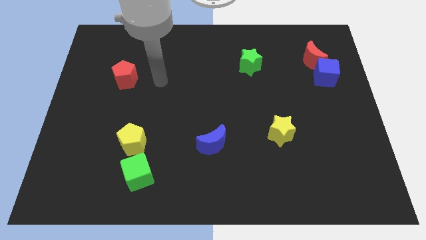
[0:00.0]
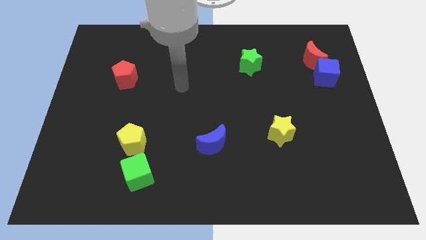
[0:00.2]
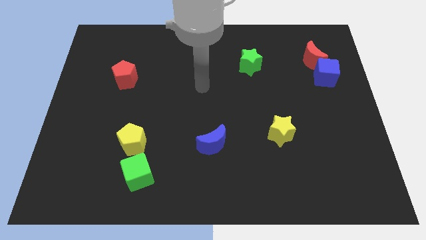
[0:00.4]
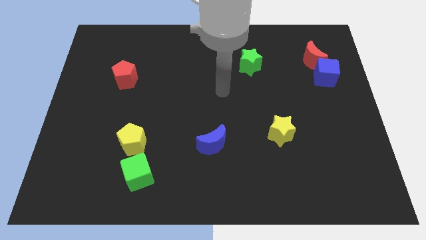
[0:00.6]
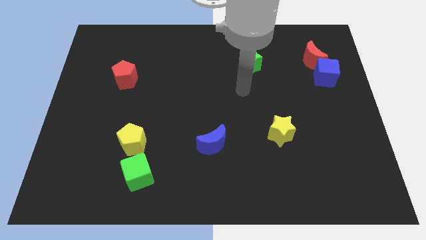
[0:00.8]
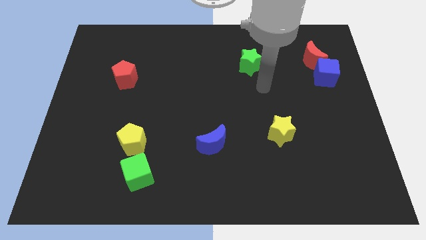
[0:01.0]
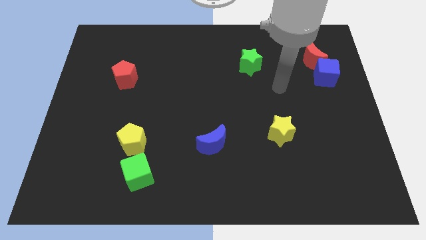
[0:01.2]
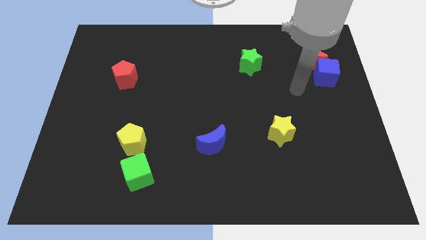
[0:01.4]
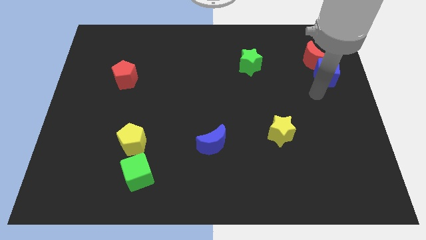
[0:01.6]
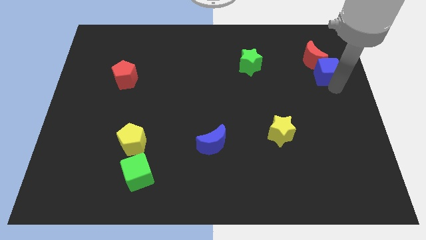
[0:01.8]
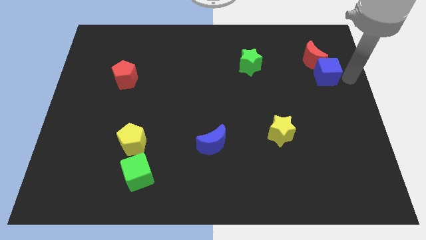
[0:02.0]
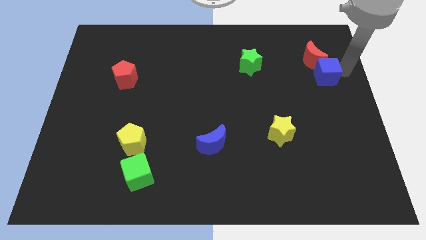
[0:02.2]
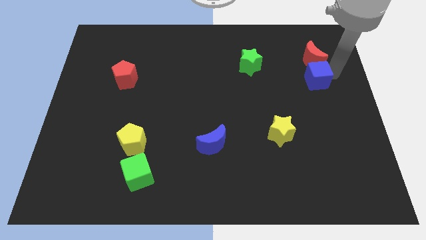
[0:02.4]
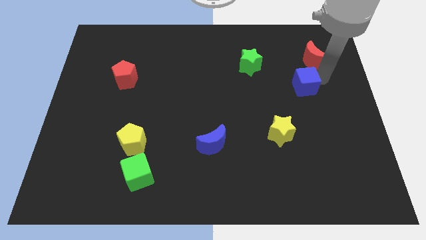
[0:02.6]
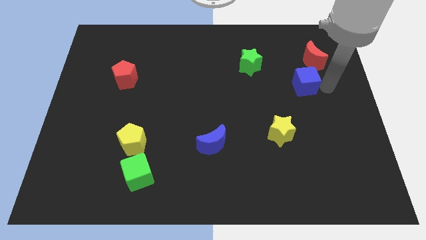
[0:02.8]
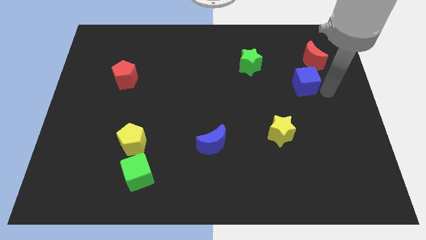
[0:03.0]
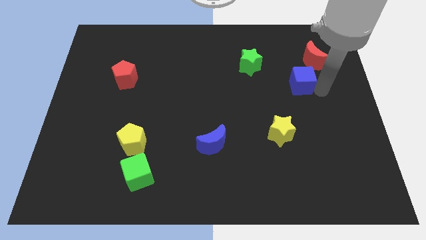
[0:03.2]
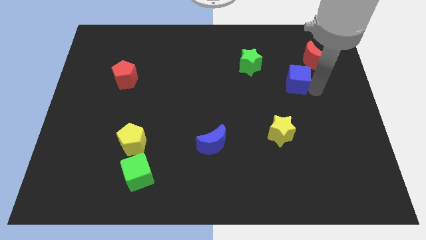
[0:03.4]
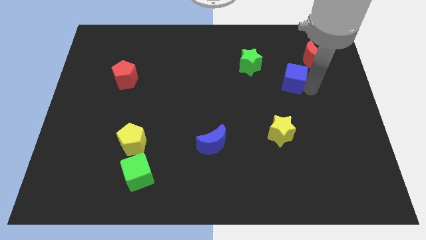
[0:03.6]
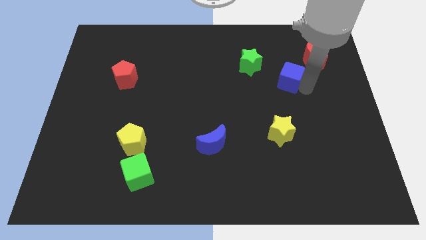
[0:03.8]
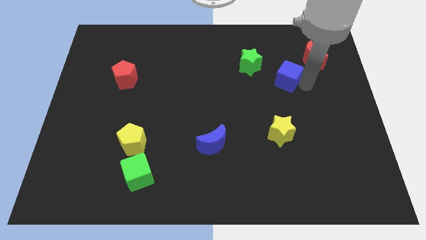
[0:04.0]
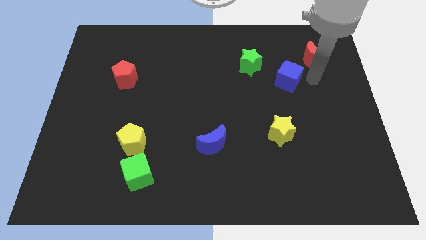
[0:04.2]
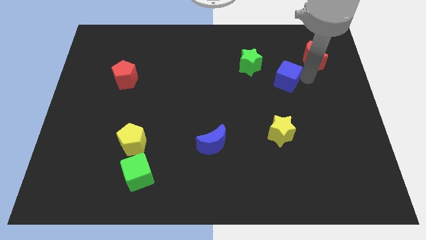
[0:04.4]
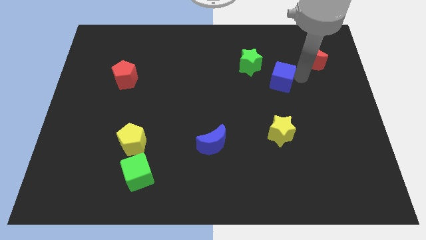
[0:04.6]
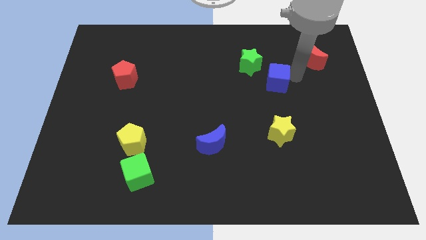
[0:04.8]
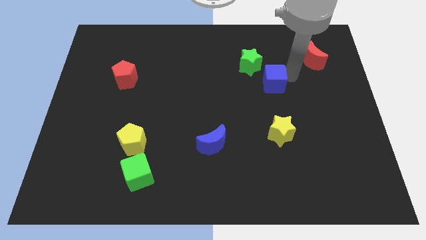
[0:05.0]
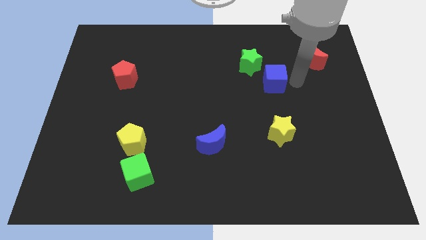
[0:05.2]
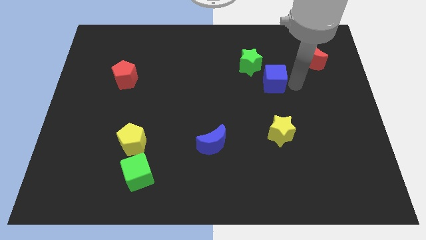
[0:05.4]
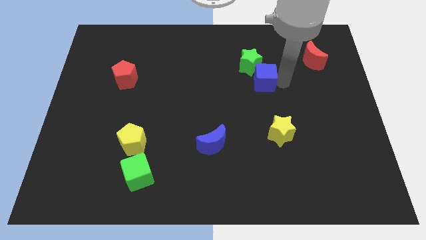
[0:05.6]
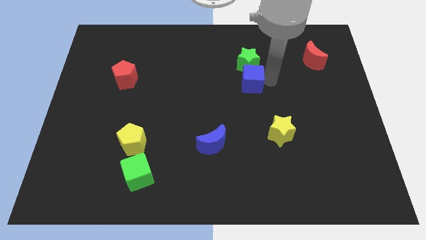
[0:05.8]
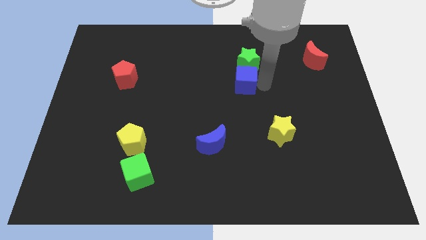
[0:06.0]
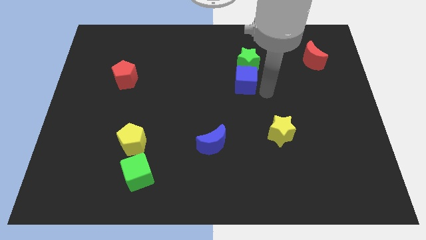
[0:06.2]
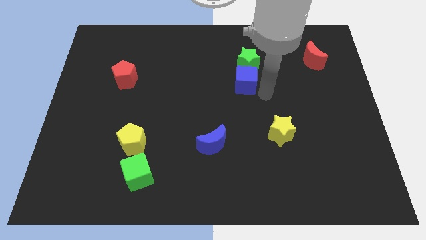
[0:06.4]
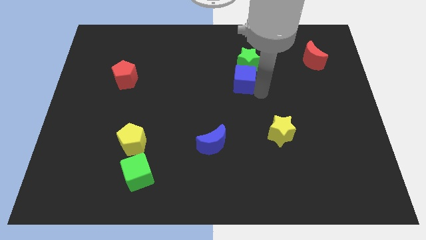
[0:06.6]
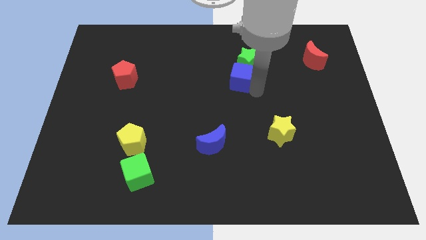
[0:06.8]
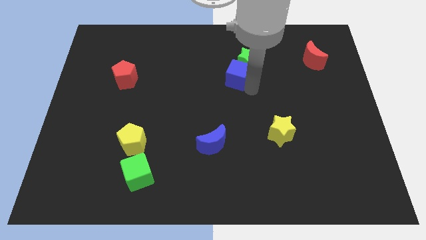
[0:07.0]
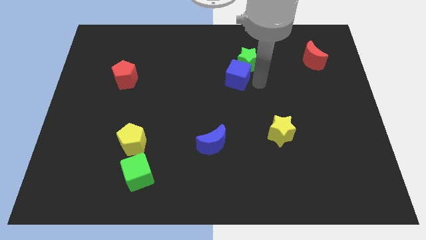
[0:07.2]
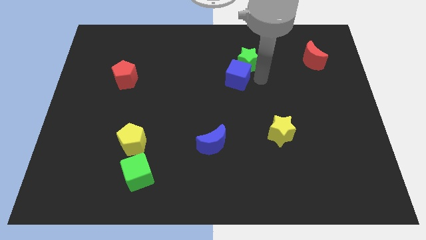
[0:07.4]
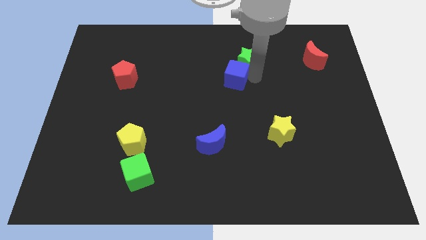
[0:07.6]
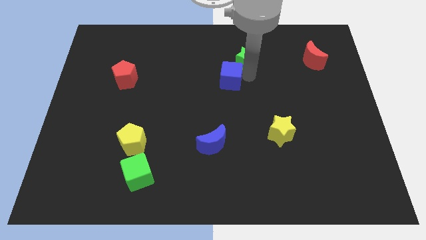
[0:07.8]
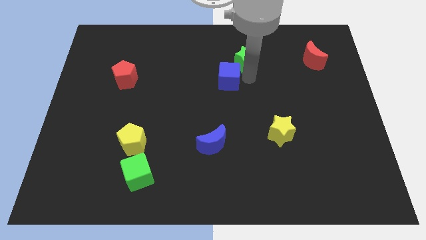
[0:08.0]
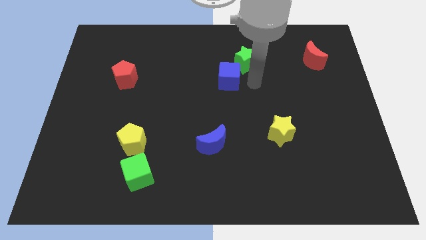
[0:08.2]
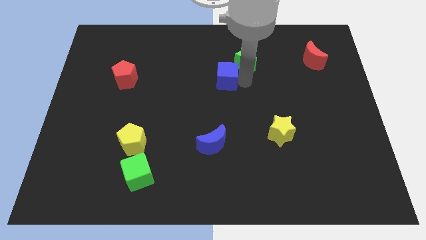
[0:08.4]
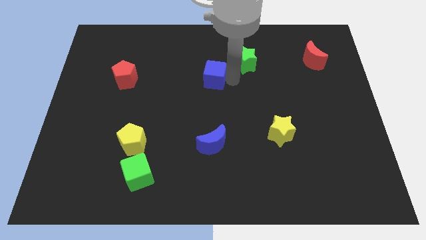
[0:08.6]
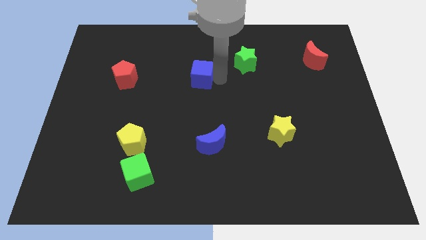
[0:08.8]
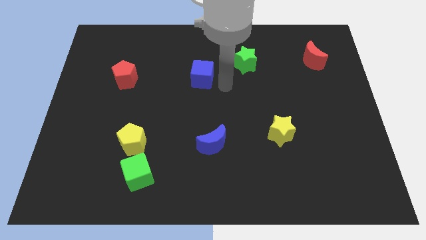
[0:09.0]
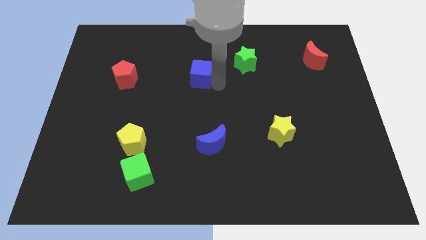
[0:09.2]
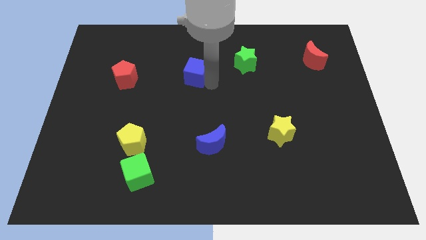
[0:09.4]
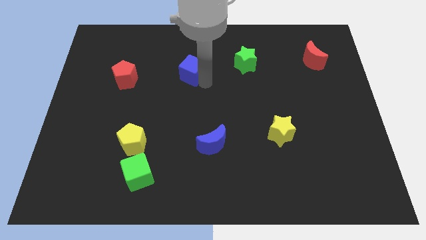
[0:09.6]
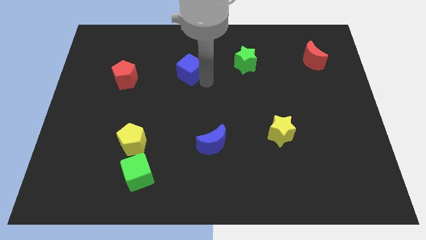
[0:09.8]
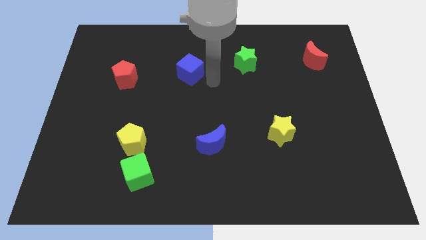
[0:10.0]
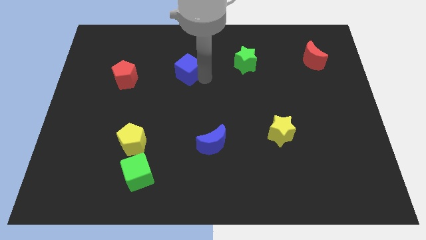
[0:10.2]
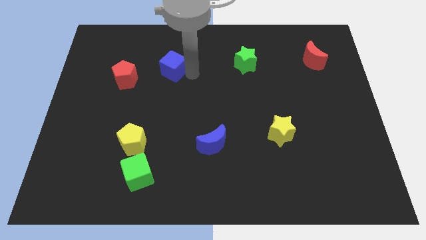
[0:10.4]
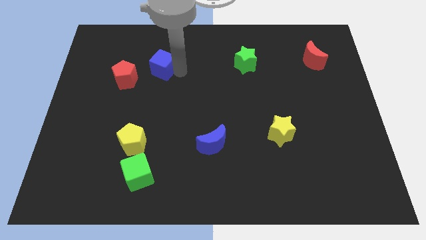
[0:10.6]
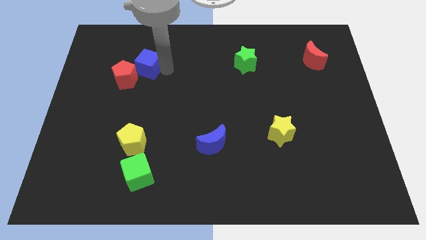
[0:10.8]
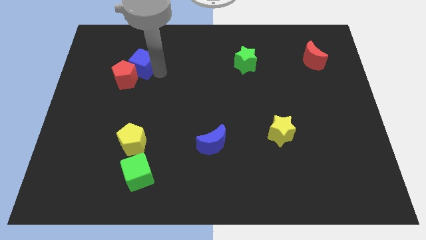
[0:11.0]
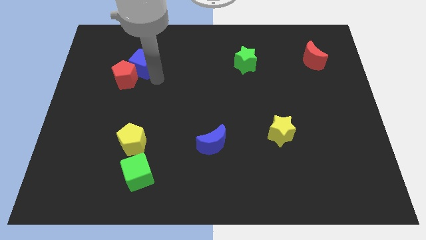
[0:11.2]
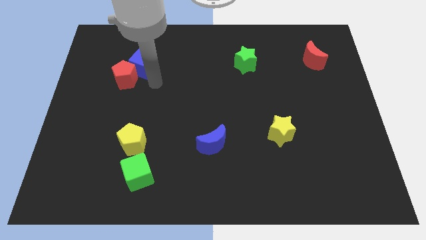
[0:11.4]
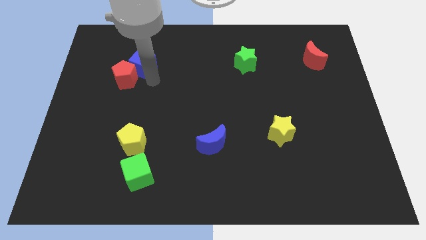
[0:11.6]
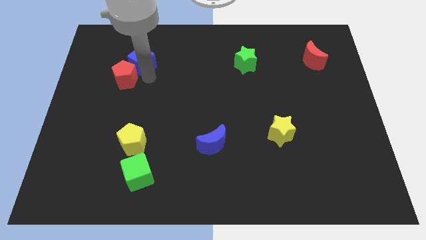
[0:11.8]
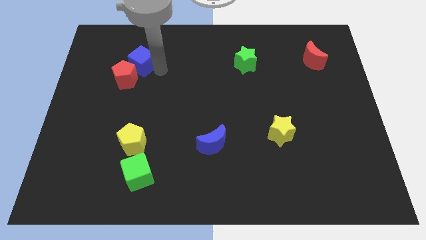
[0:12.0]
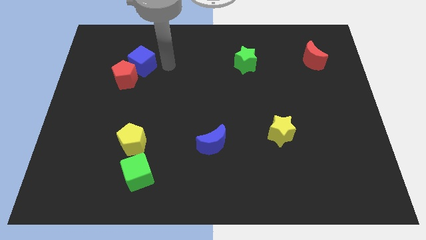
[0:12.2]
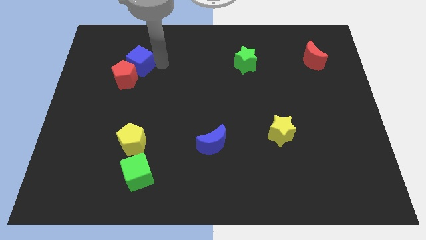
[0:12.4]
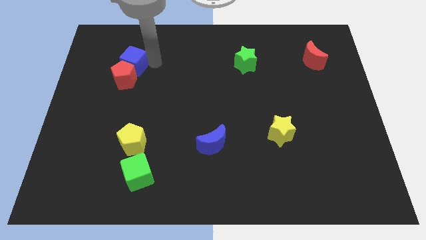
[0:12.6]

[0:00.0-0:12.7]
push the blue cube to the top left of the red pentagon

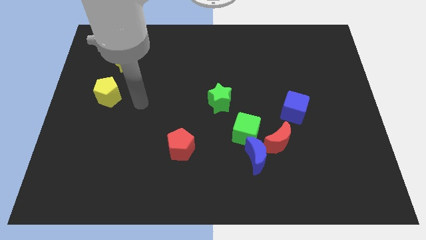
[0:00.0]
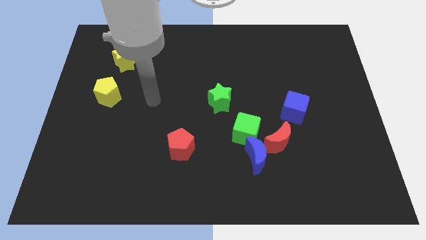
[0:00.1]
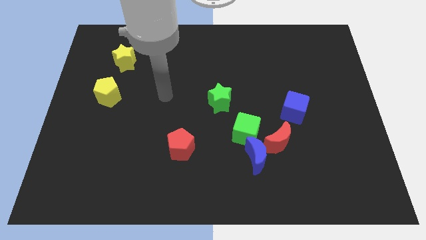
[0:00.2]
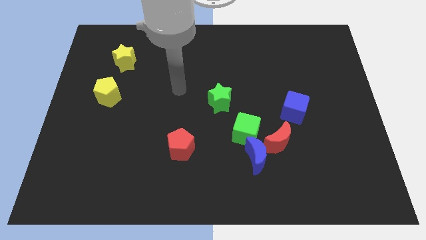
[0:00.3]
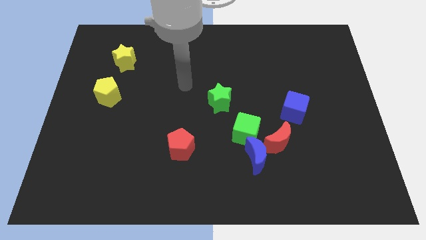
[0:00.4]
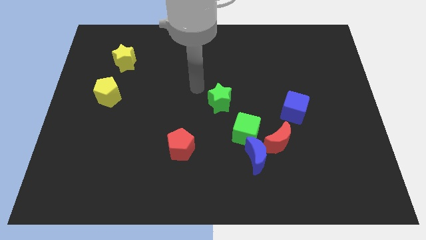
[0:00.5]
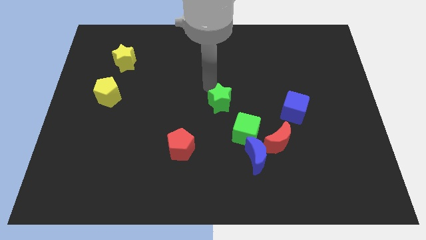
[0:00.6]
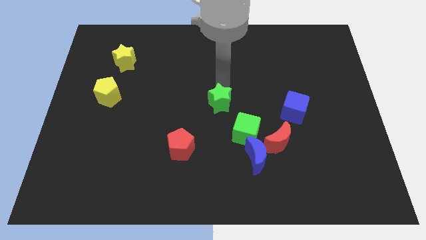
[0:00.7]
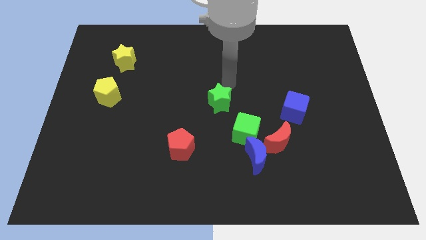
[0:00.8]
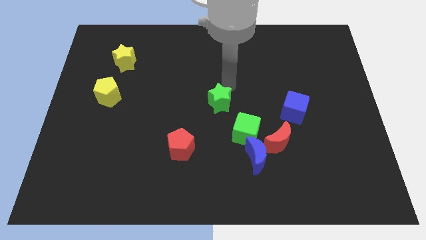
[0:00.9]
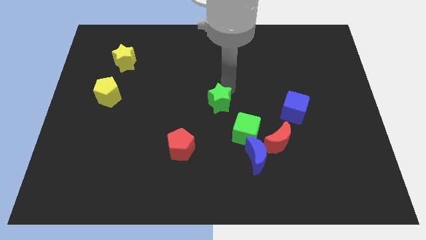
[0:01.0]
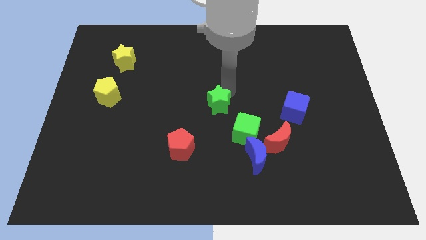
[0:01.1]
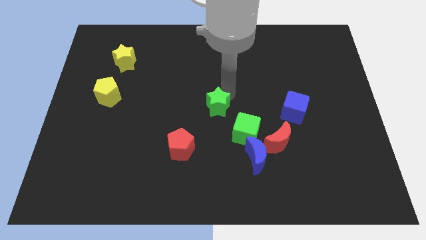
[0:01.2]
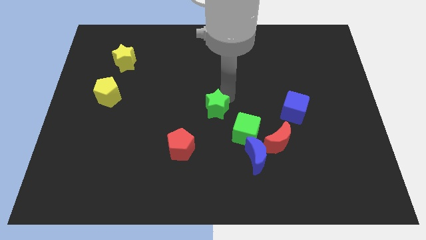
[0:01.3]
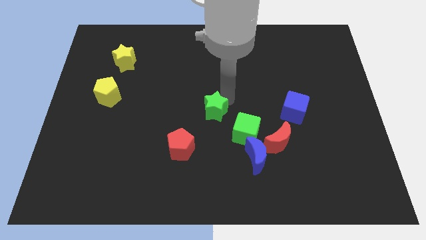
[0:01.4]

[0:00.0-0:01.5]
push the green star to the top right side of the red pentagon
